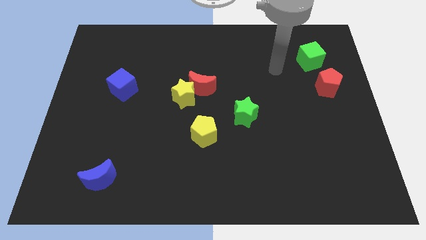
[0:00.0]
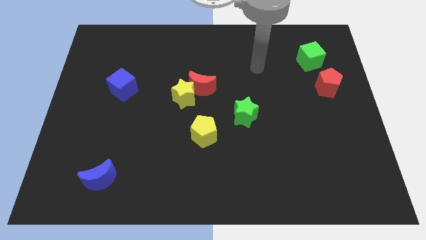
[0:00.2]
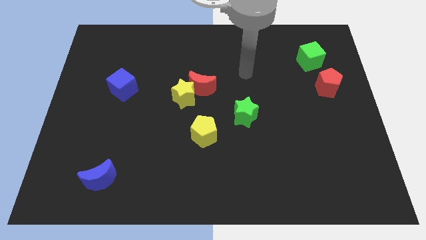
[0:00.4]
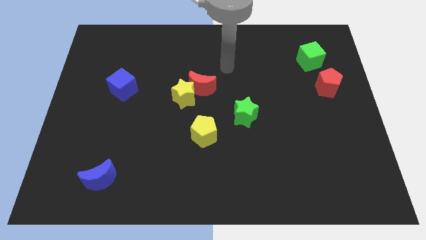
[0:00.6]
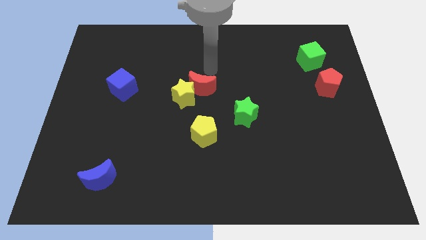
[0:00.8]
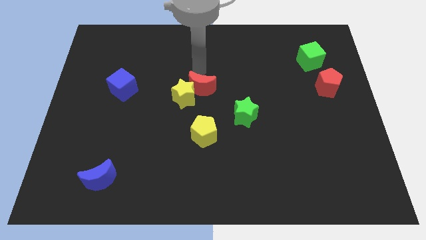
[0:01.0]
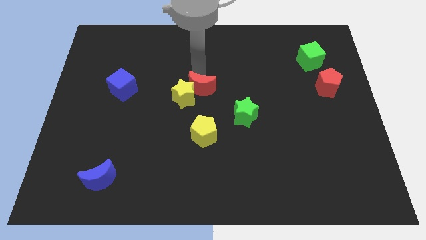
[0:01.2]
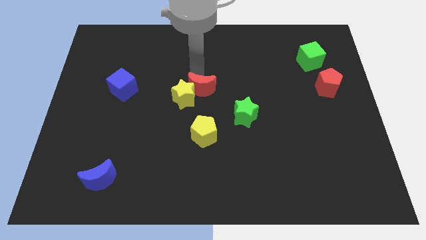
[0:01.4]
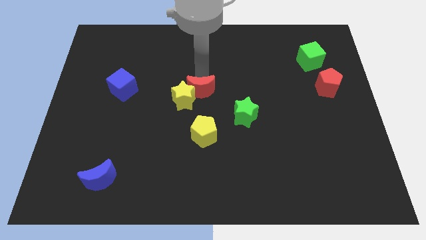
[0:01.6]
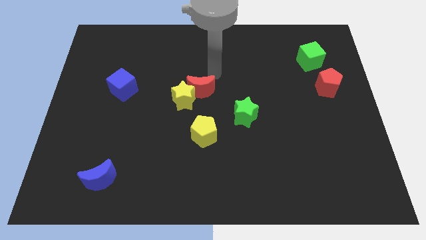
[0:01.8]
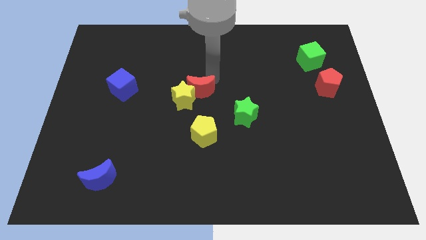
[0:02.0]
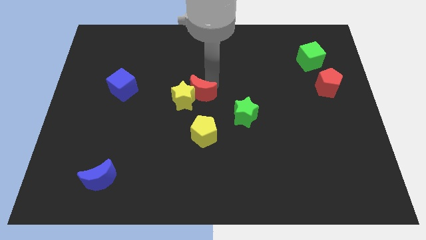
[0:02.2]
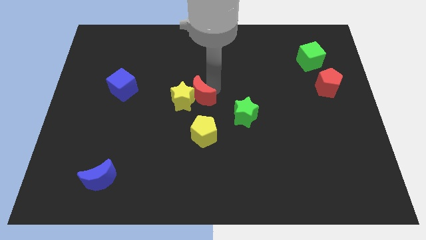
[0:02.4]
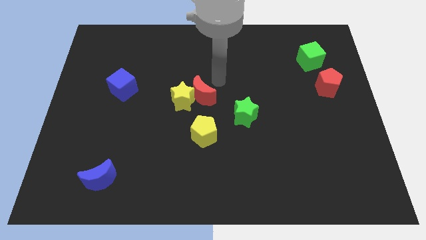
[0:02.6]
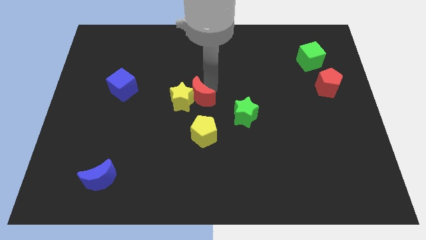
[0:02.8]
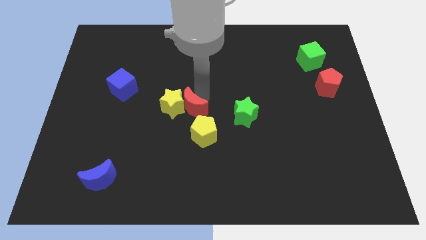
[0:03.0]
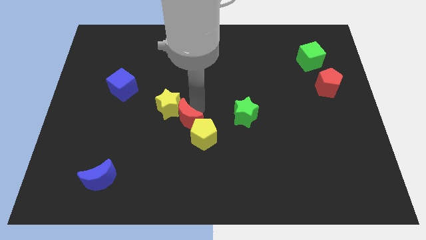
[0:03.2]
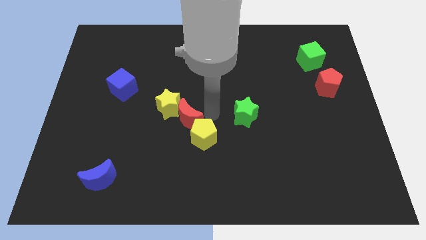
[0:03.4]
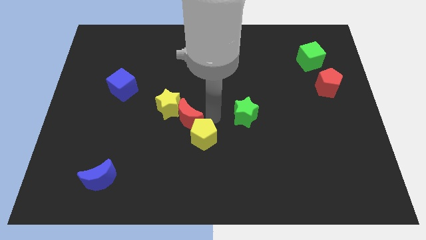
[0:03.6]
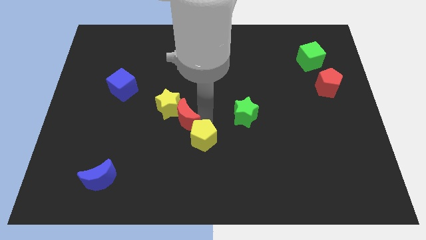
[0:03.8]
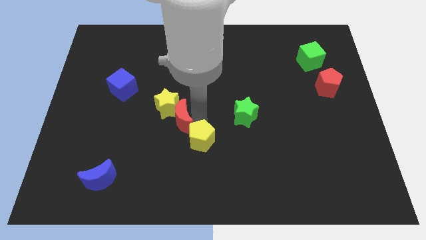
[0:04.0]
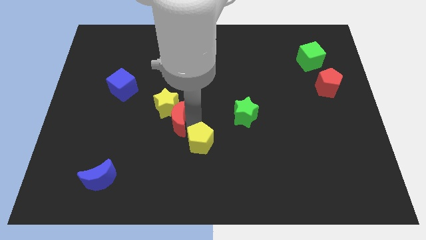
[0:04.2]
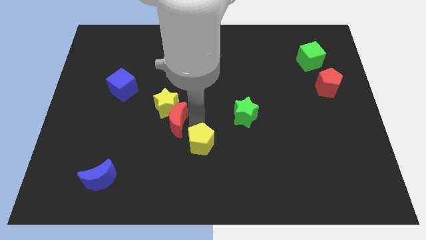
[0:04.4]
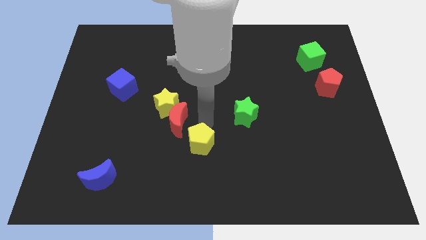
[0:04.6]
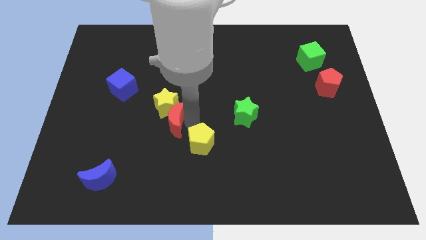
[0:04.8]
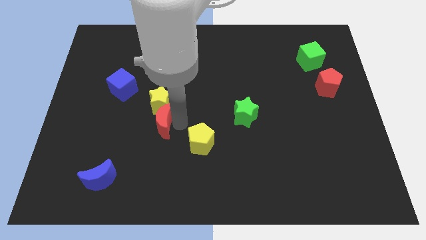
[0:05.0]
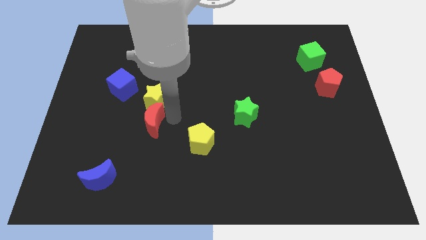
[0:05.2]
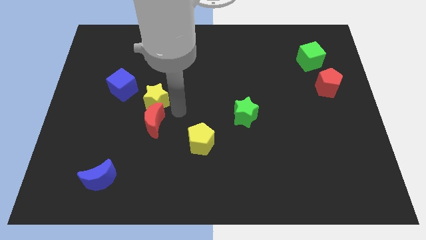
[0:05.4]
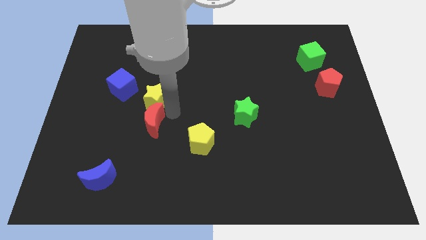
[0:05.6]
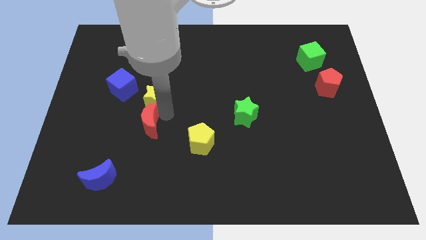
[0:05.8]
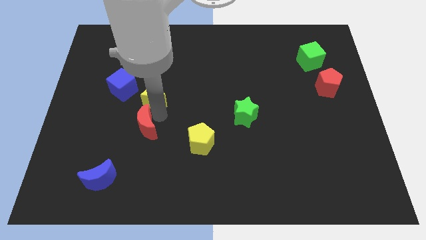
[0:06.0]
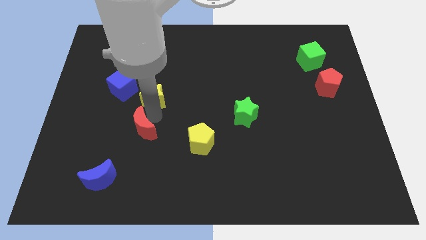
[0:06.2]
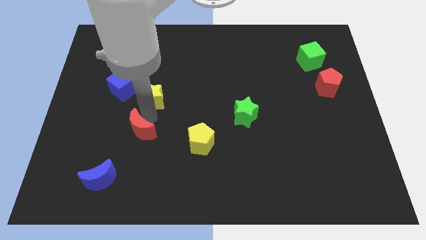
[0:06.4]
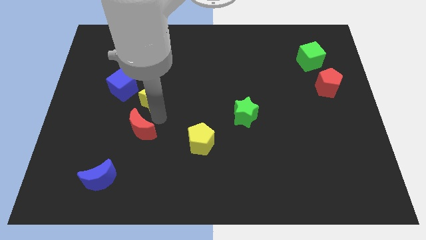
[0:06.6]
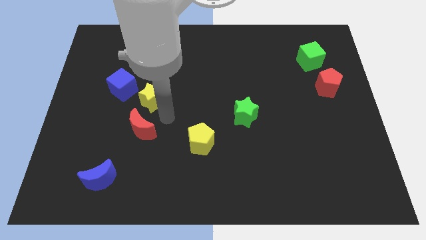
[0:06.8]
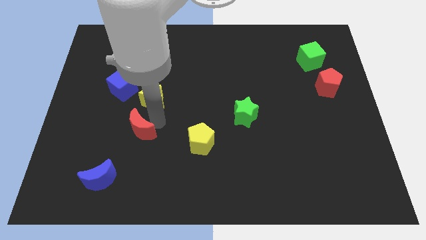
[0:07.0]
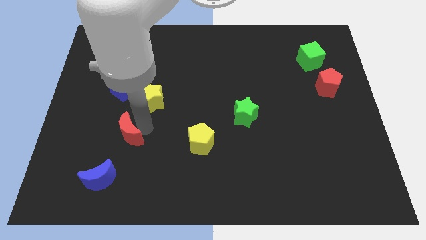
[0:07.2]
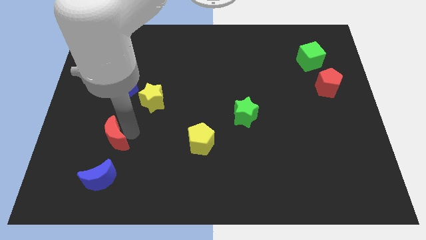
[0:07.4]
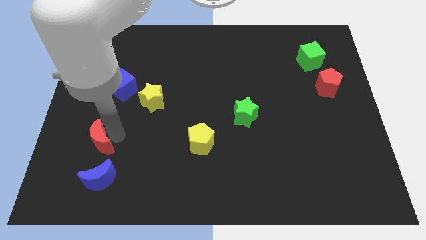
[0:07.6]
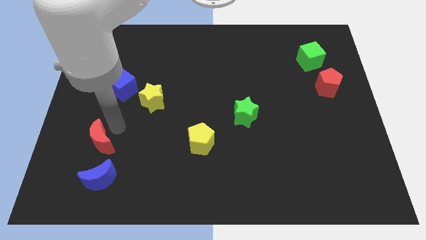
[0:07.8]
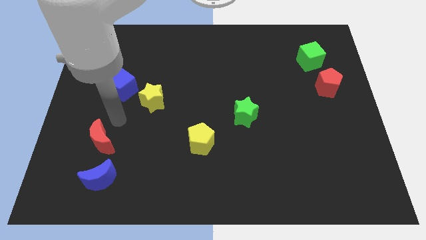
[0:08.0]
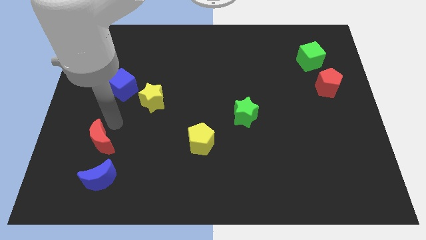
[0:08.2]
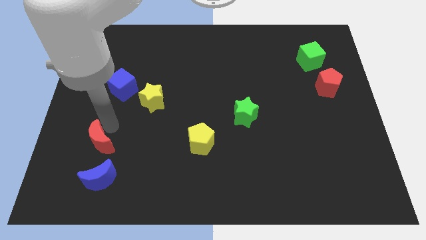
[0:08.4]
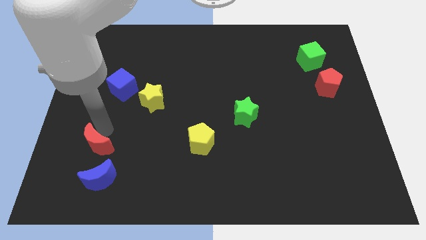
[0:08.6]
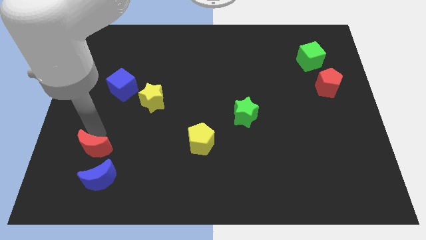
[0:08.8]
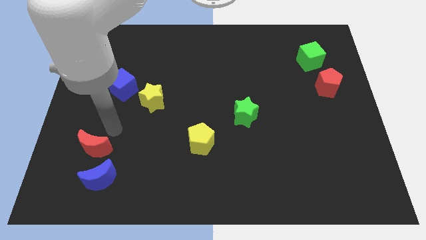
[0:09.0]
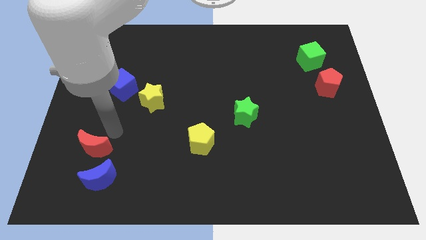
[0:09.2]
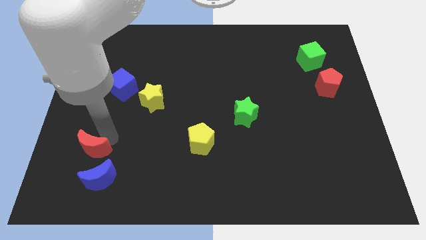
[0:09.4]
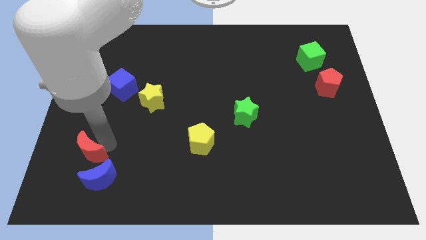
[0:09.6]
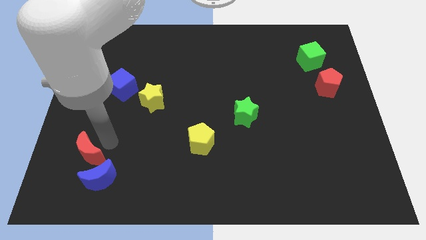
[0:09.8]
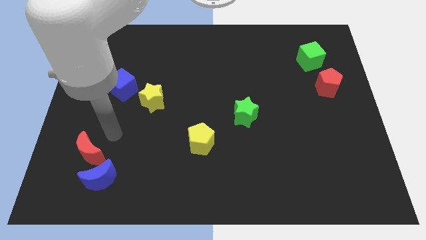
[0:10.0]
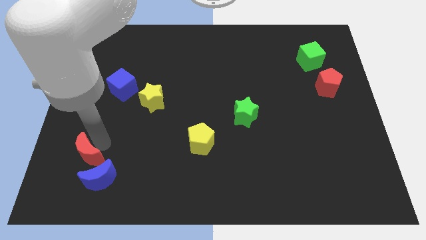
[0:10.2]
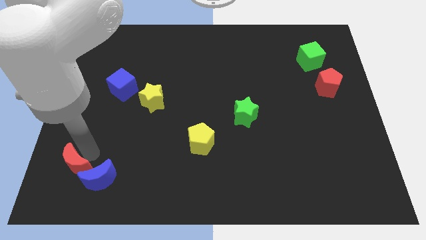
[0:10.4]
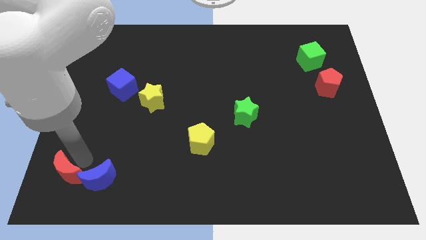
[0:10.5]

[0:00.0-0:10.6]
put the red moon to the lower left corner

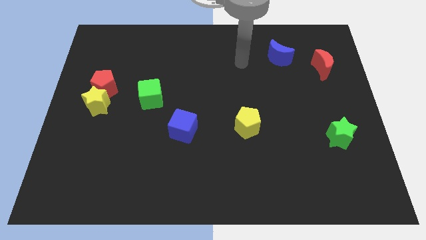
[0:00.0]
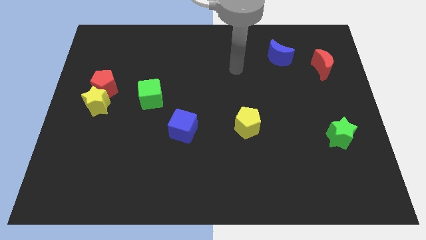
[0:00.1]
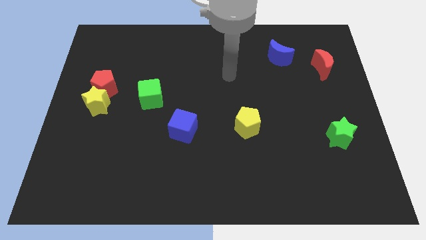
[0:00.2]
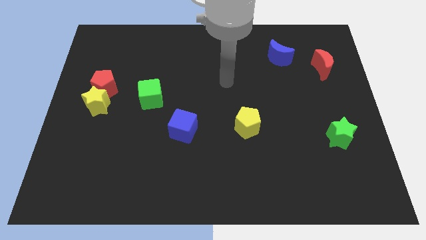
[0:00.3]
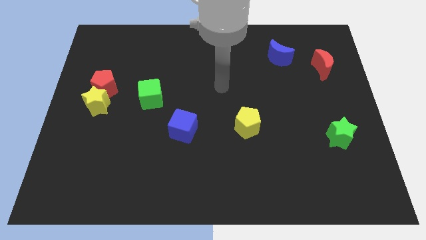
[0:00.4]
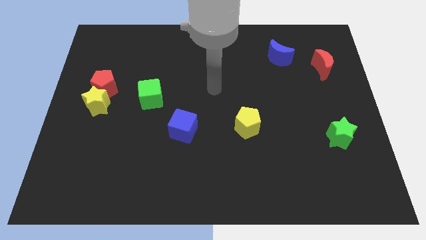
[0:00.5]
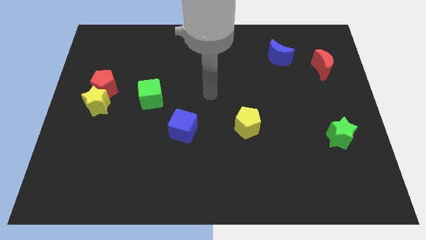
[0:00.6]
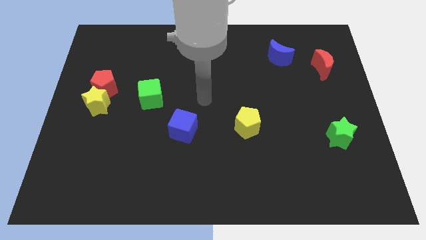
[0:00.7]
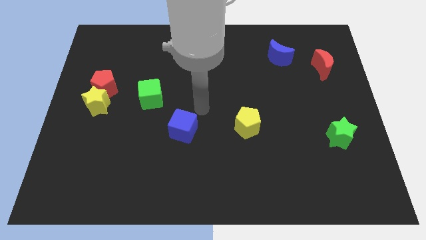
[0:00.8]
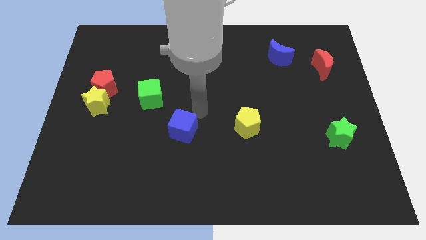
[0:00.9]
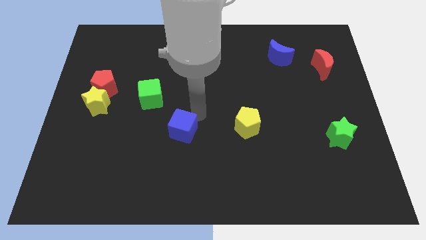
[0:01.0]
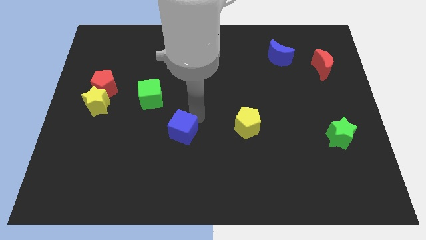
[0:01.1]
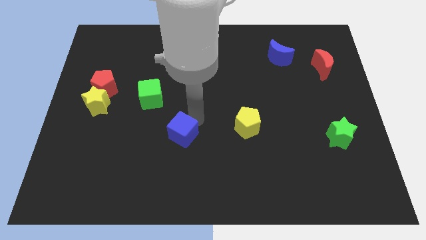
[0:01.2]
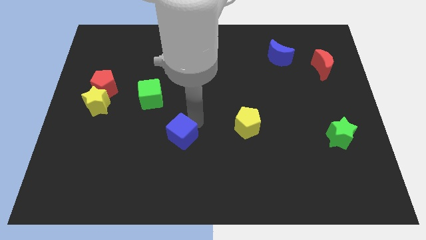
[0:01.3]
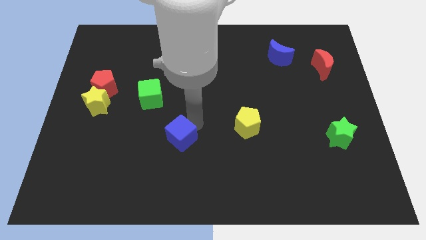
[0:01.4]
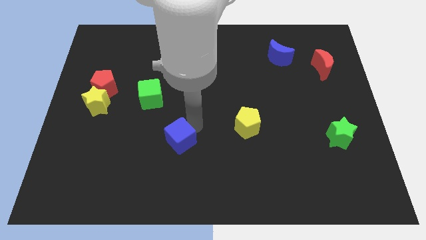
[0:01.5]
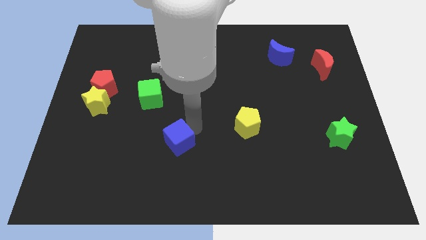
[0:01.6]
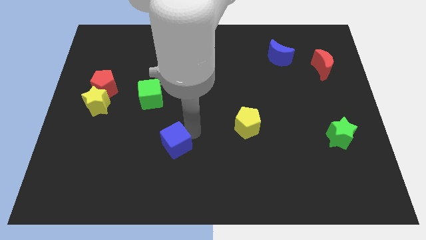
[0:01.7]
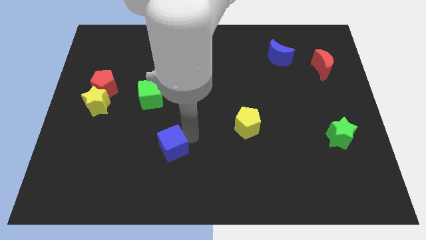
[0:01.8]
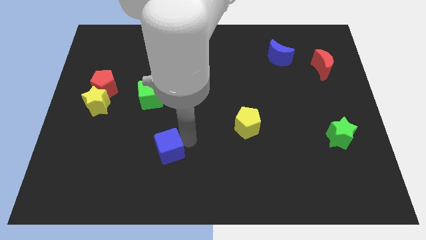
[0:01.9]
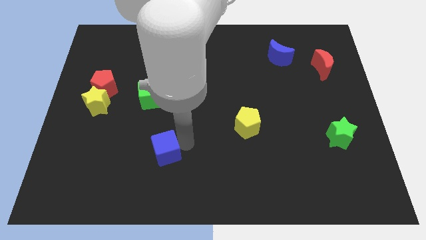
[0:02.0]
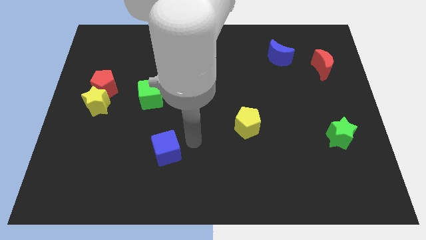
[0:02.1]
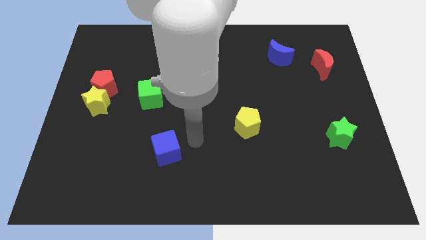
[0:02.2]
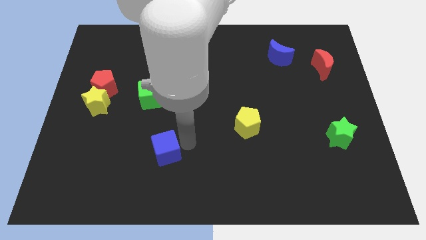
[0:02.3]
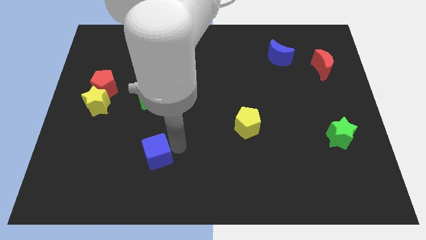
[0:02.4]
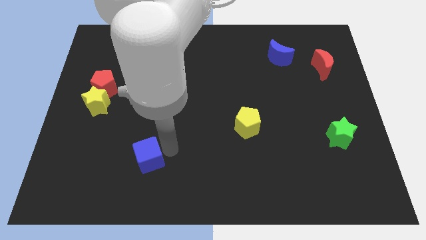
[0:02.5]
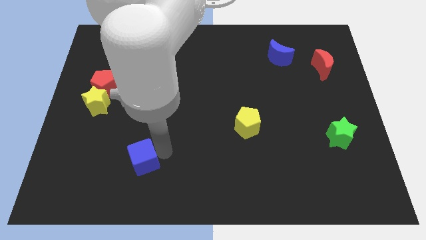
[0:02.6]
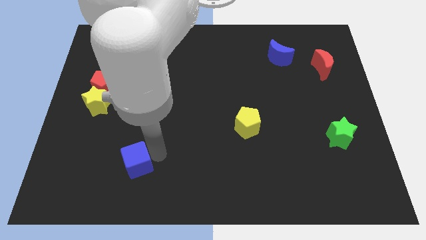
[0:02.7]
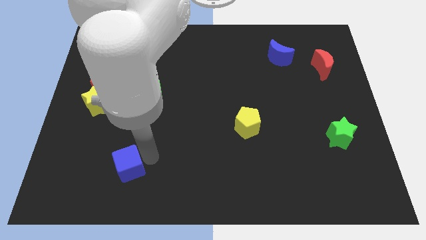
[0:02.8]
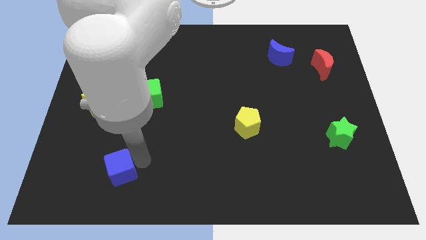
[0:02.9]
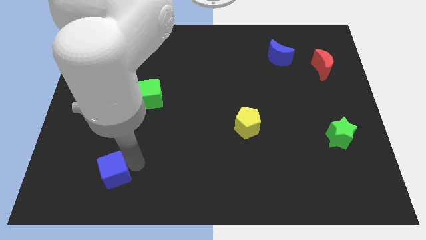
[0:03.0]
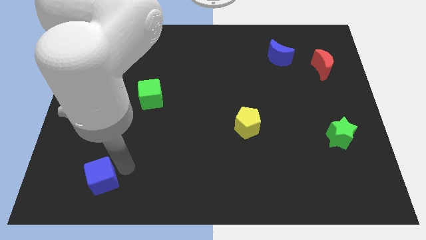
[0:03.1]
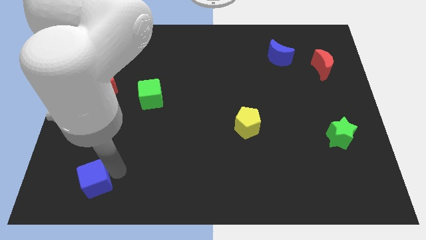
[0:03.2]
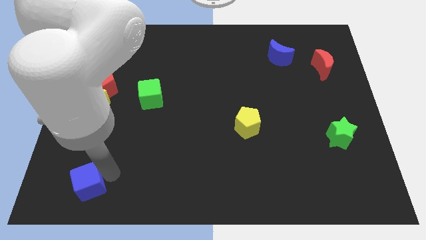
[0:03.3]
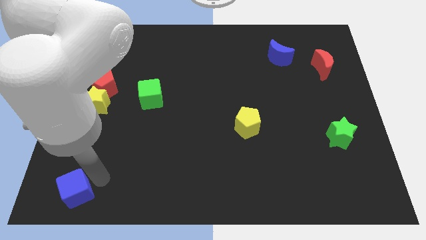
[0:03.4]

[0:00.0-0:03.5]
slide the blue cube to the lower left corner
